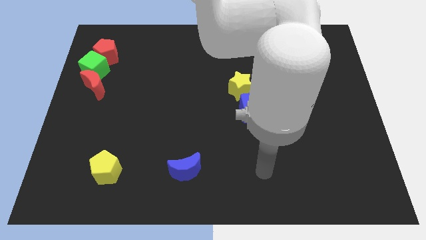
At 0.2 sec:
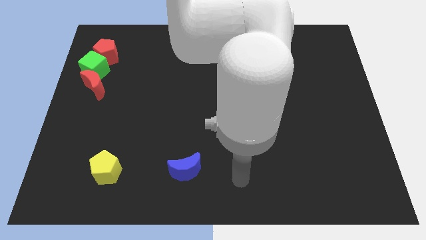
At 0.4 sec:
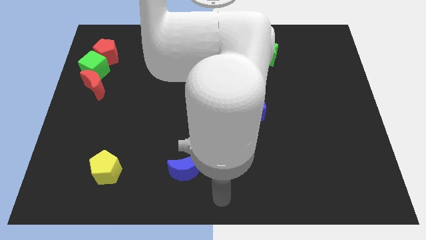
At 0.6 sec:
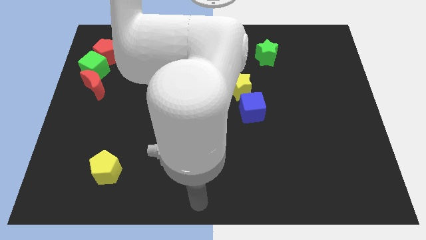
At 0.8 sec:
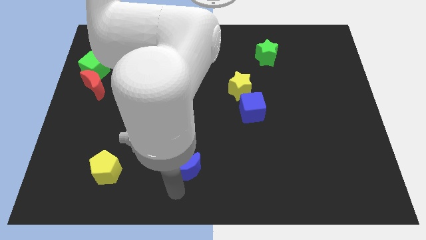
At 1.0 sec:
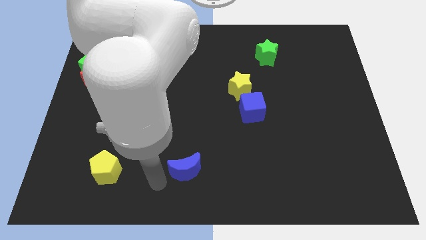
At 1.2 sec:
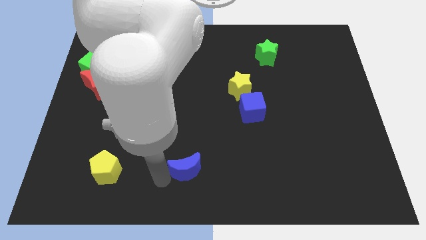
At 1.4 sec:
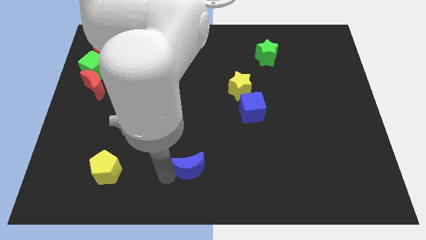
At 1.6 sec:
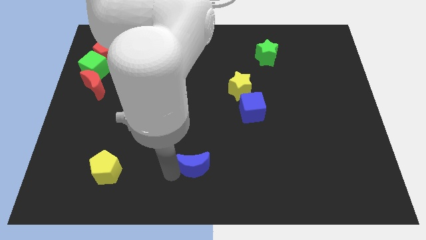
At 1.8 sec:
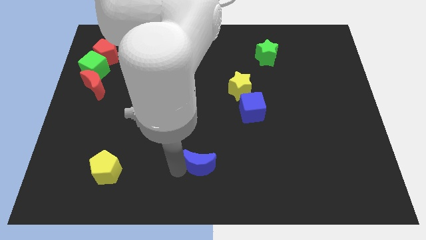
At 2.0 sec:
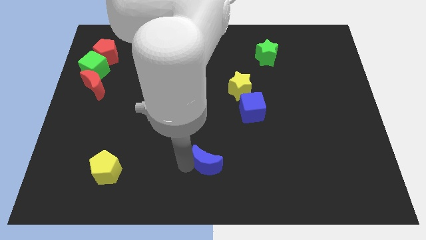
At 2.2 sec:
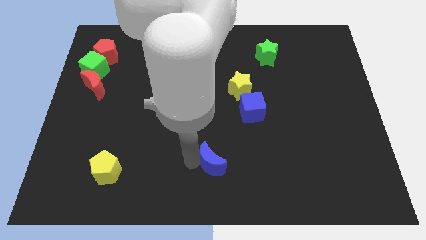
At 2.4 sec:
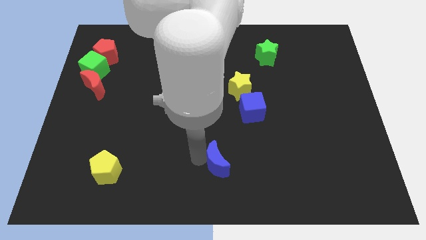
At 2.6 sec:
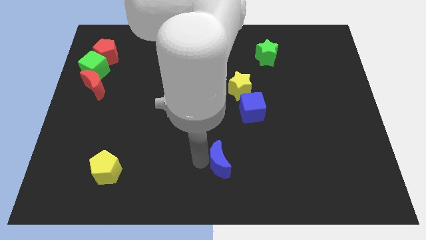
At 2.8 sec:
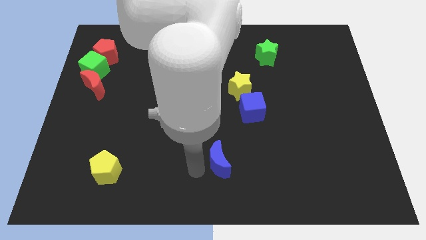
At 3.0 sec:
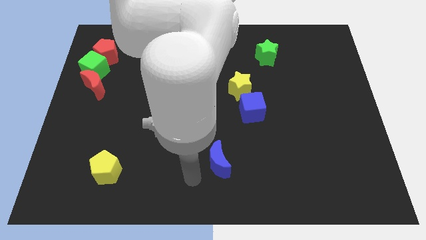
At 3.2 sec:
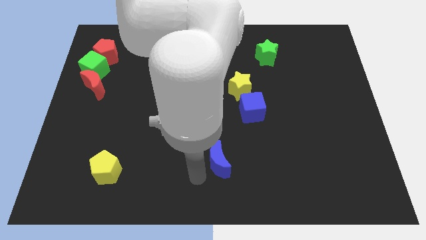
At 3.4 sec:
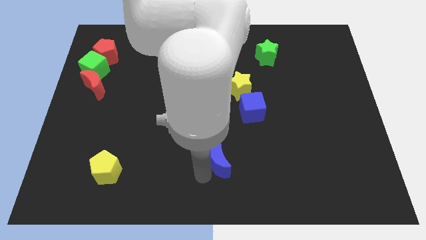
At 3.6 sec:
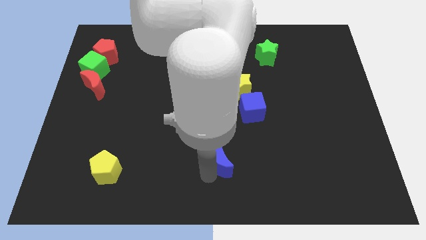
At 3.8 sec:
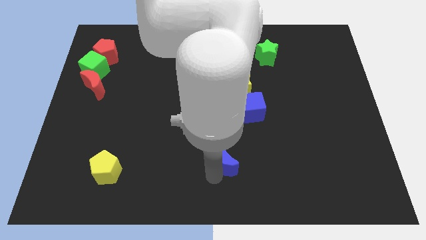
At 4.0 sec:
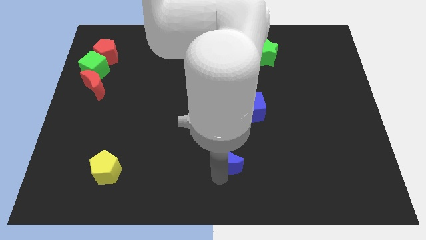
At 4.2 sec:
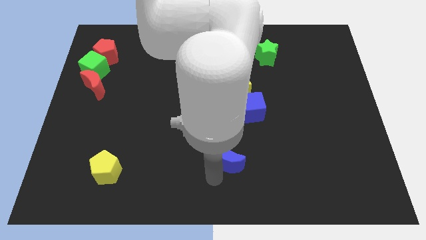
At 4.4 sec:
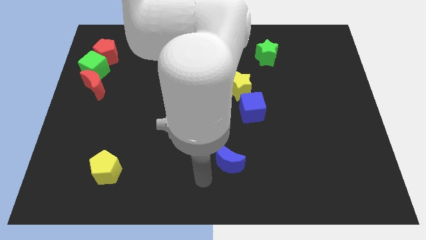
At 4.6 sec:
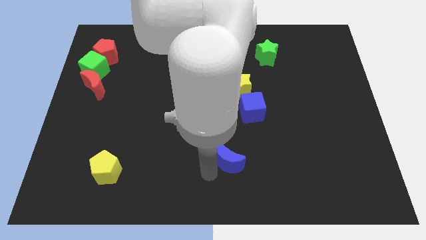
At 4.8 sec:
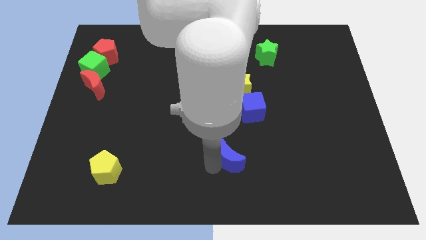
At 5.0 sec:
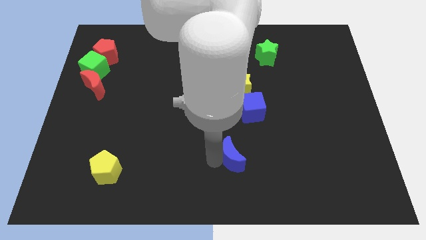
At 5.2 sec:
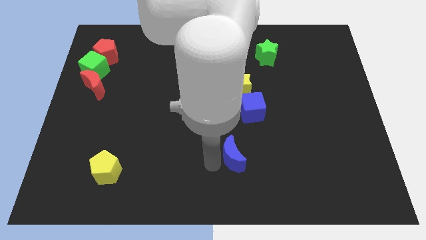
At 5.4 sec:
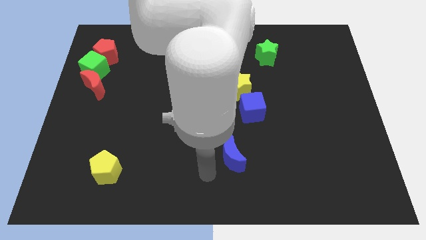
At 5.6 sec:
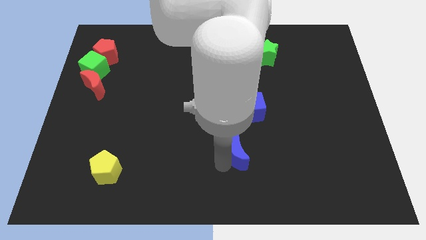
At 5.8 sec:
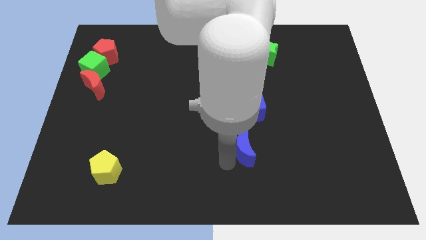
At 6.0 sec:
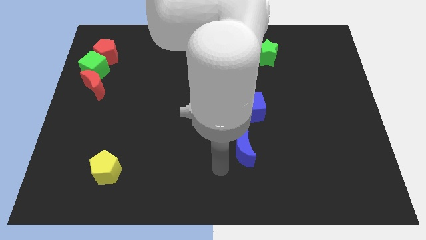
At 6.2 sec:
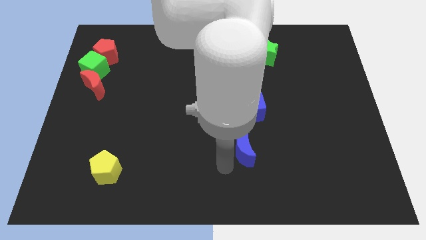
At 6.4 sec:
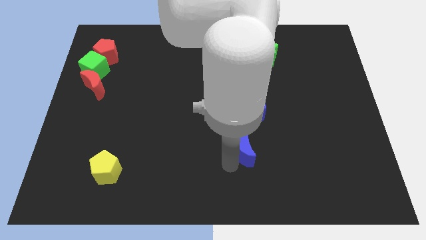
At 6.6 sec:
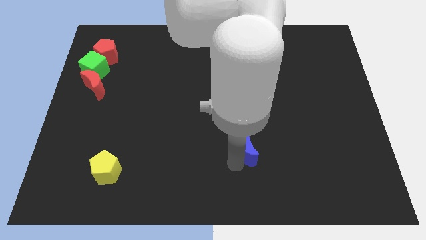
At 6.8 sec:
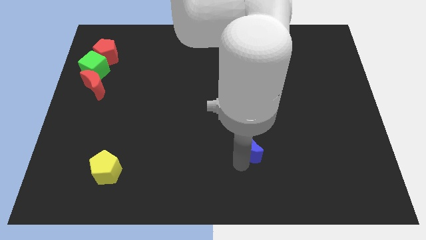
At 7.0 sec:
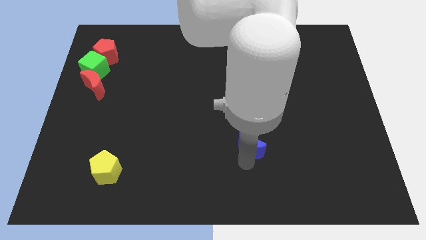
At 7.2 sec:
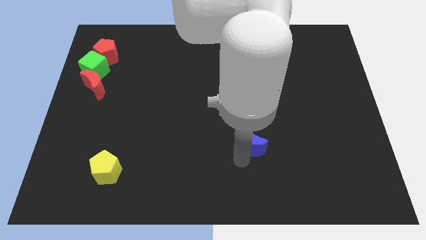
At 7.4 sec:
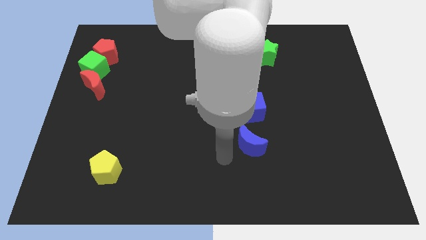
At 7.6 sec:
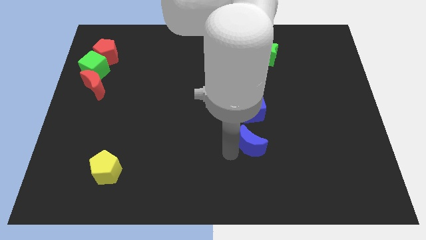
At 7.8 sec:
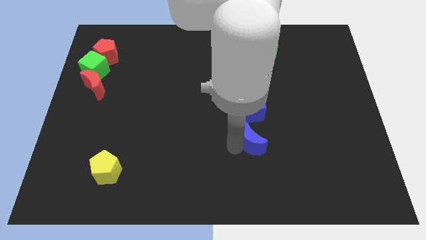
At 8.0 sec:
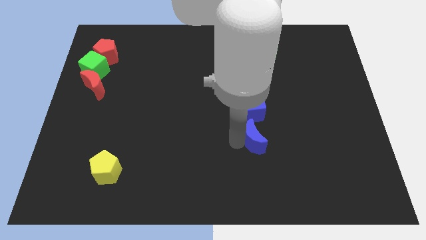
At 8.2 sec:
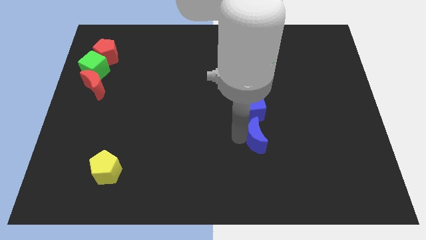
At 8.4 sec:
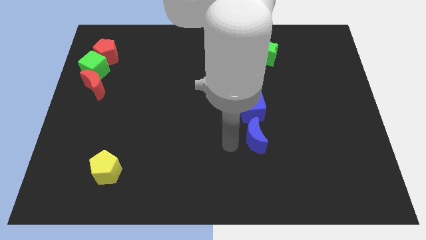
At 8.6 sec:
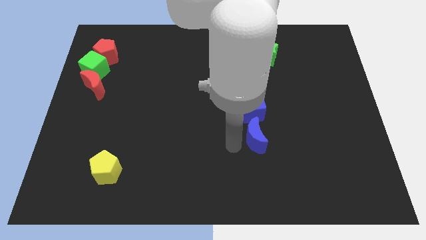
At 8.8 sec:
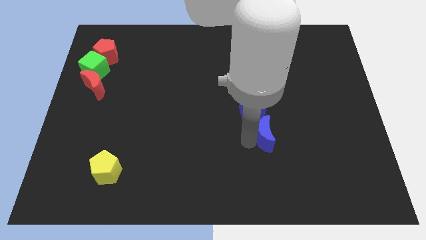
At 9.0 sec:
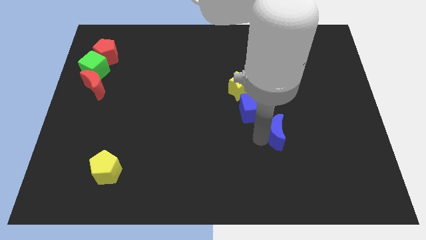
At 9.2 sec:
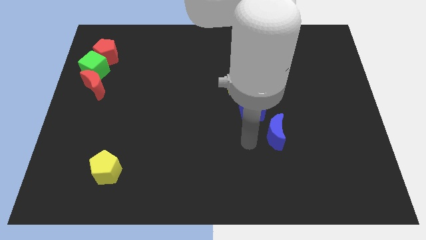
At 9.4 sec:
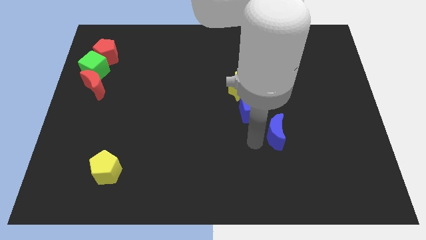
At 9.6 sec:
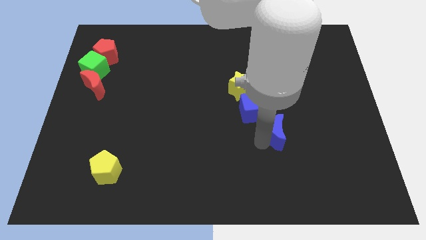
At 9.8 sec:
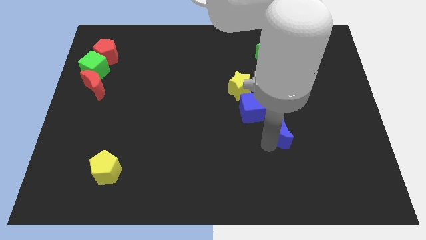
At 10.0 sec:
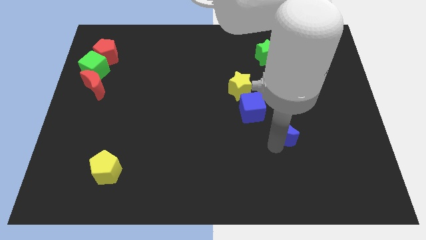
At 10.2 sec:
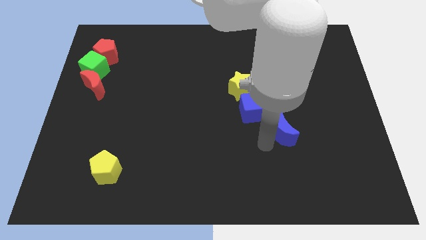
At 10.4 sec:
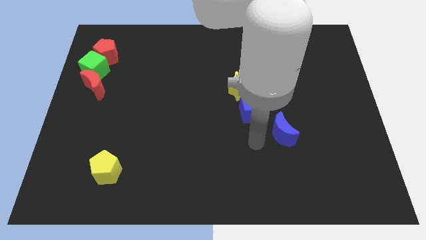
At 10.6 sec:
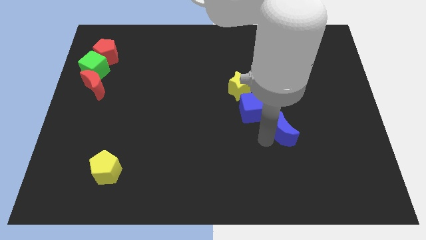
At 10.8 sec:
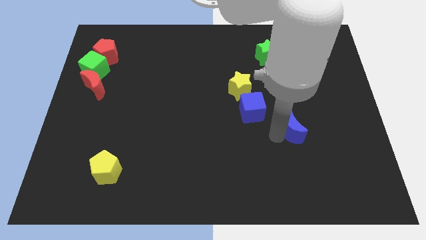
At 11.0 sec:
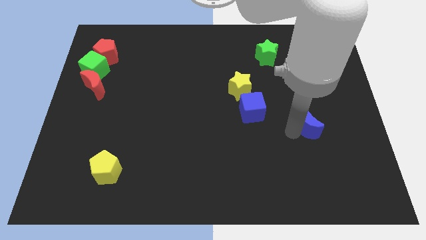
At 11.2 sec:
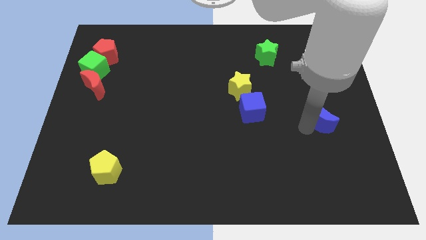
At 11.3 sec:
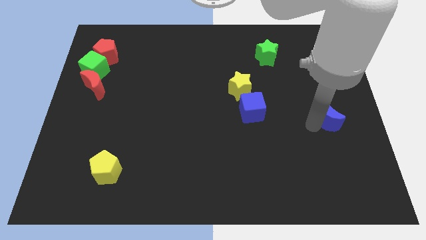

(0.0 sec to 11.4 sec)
push the blue moon to the right side
